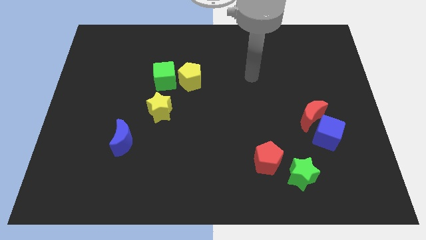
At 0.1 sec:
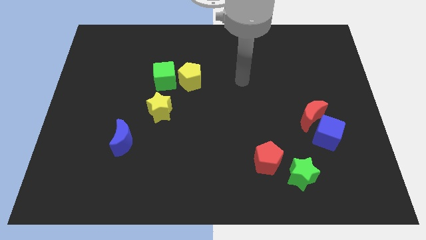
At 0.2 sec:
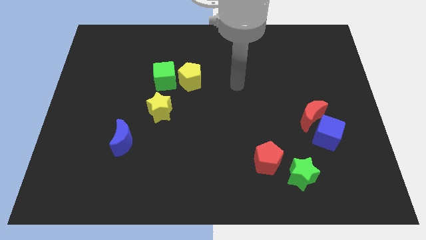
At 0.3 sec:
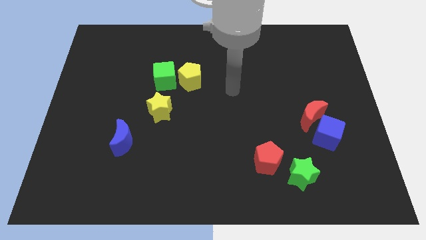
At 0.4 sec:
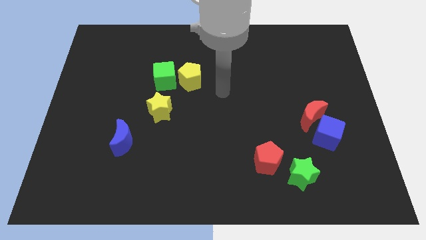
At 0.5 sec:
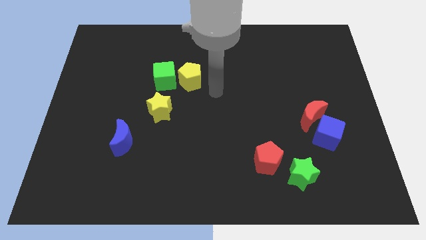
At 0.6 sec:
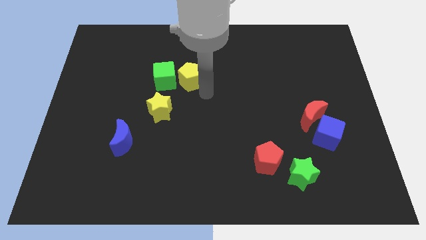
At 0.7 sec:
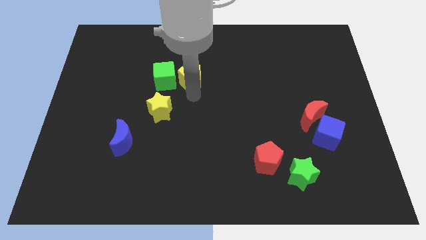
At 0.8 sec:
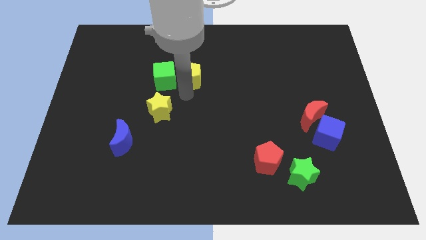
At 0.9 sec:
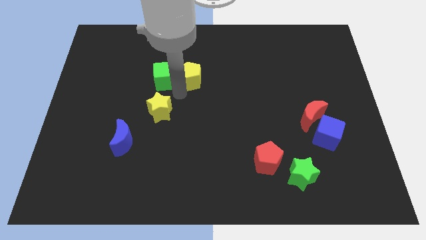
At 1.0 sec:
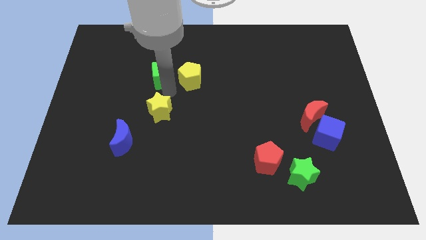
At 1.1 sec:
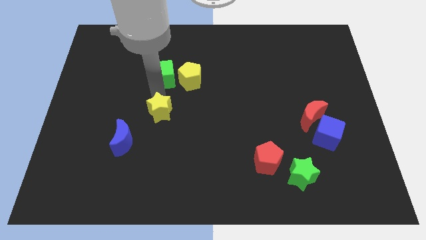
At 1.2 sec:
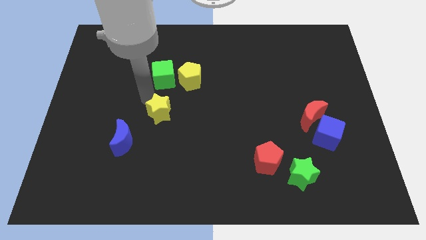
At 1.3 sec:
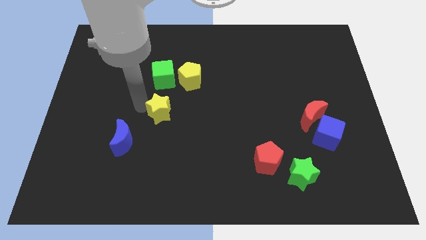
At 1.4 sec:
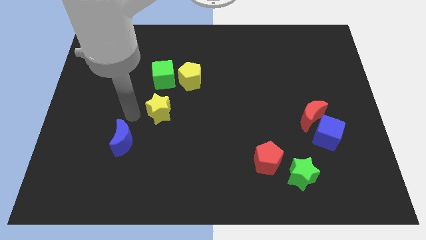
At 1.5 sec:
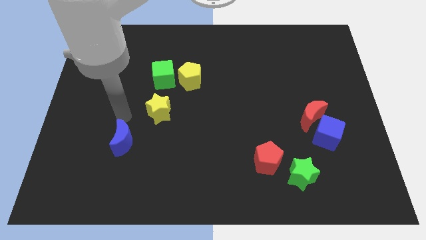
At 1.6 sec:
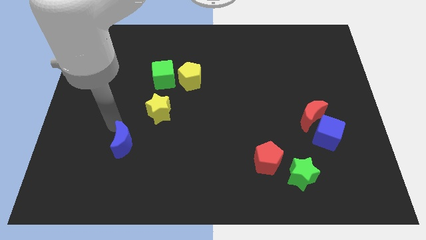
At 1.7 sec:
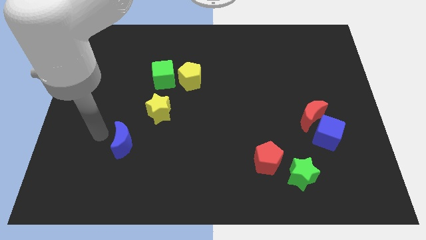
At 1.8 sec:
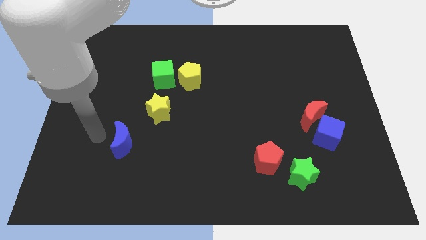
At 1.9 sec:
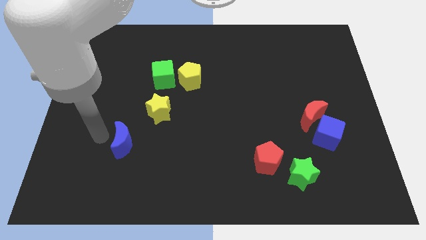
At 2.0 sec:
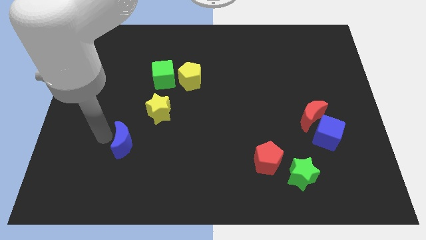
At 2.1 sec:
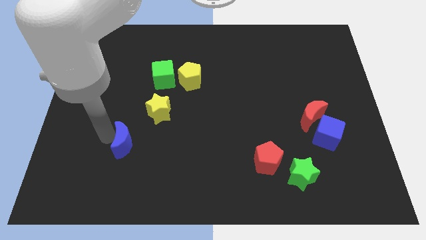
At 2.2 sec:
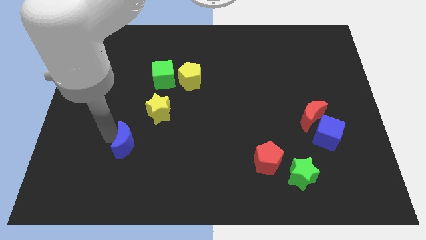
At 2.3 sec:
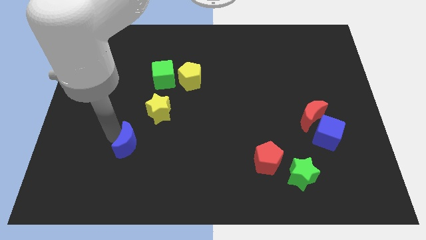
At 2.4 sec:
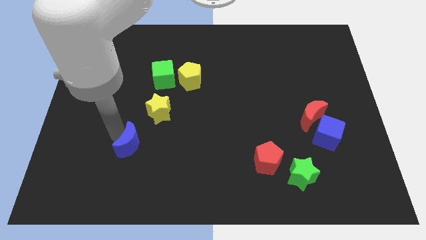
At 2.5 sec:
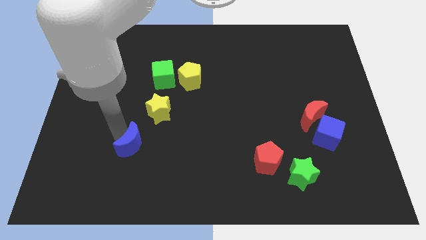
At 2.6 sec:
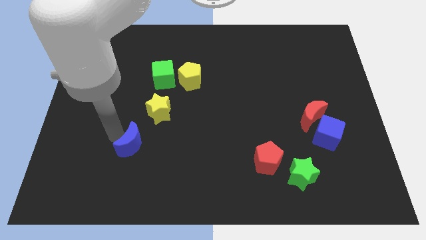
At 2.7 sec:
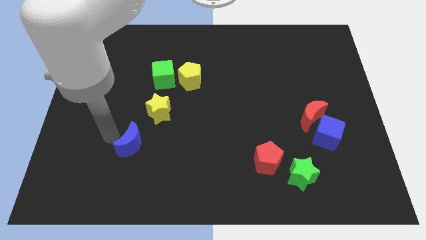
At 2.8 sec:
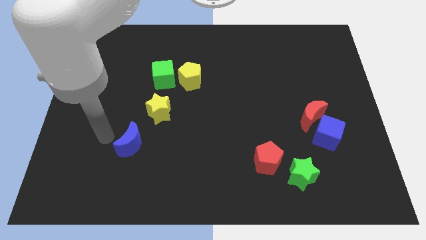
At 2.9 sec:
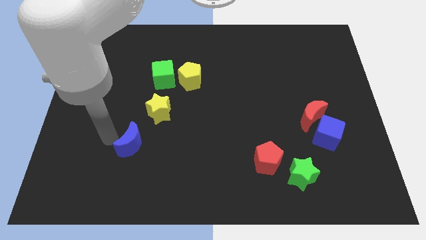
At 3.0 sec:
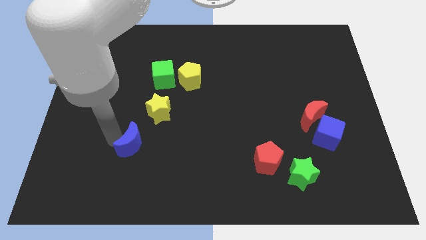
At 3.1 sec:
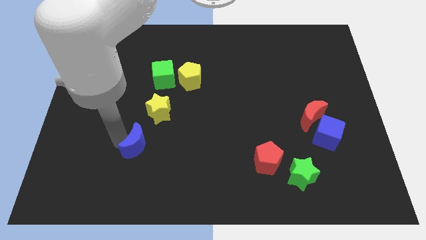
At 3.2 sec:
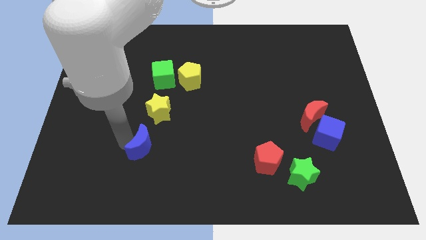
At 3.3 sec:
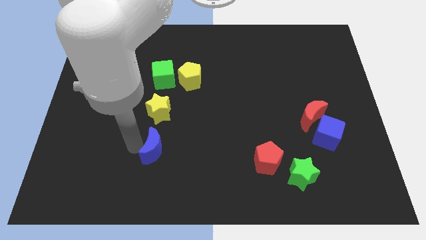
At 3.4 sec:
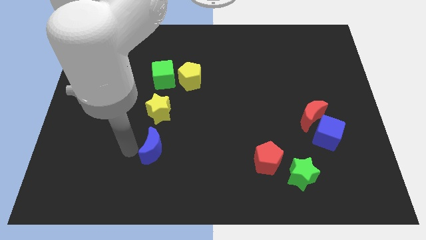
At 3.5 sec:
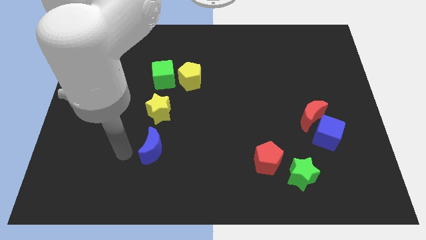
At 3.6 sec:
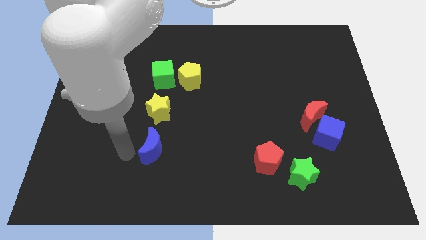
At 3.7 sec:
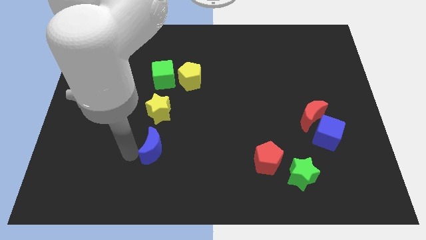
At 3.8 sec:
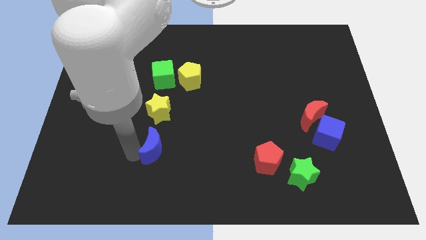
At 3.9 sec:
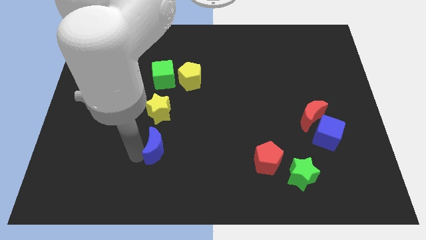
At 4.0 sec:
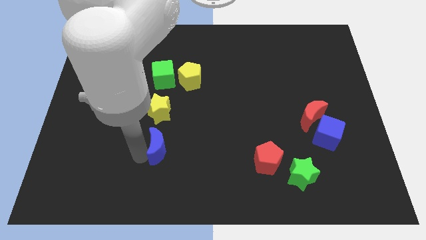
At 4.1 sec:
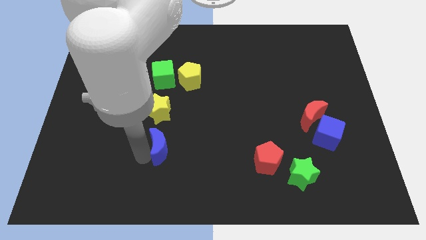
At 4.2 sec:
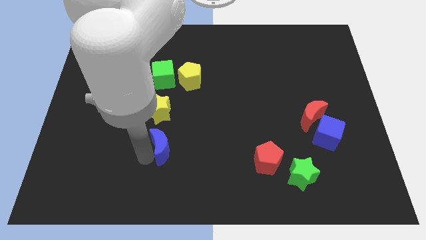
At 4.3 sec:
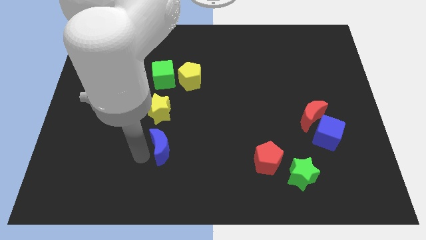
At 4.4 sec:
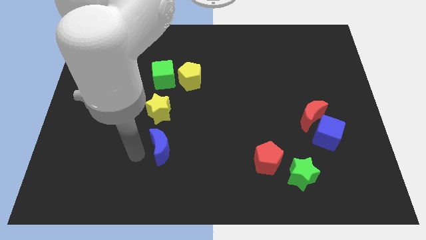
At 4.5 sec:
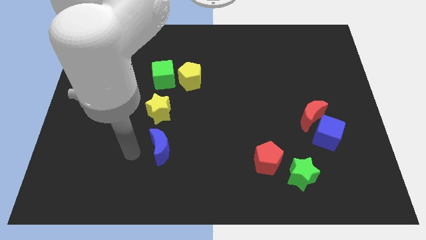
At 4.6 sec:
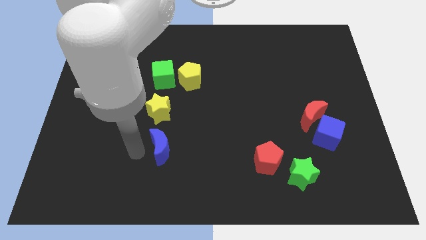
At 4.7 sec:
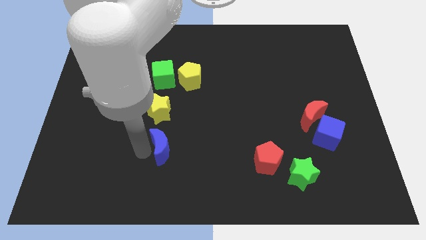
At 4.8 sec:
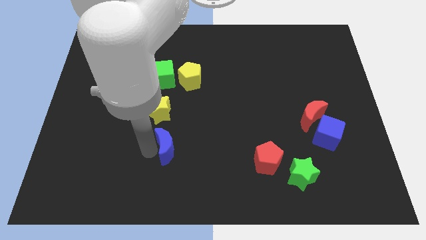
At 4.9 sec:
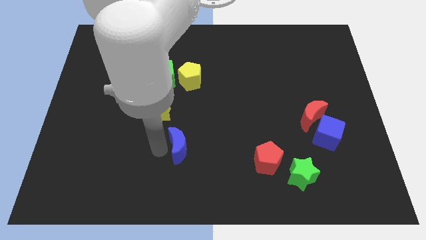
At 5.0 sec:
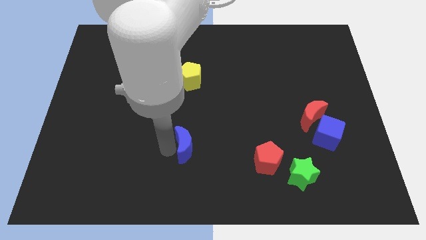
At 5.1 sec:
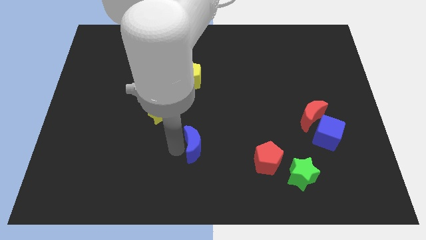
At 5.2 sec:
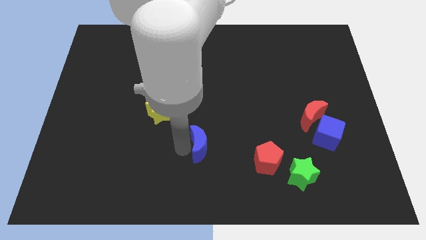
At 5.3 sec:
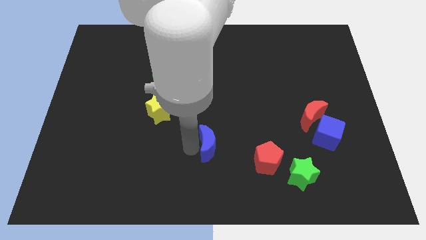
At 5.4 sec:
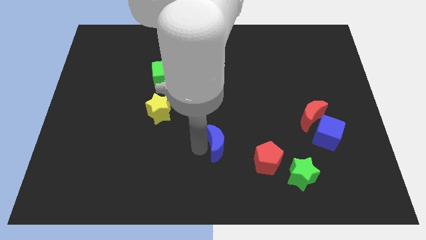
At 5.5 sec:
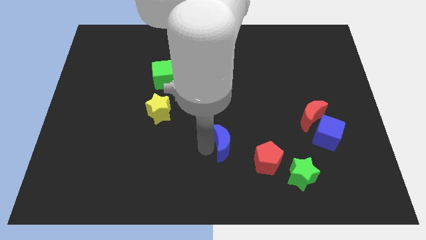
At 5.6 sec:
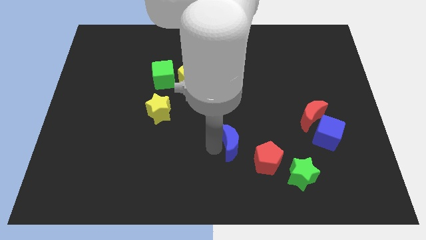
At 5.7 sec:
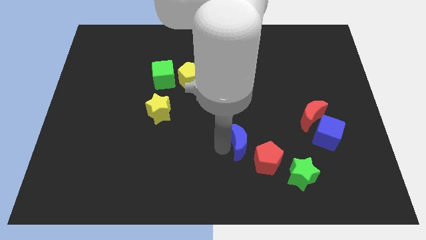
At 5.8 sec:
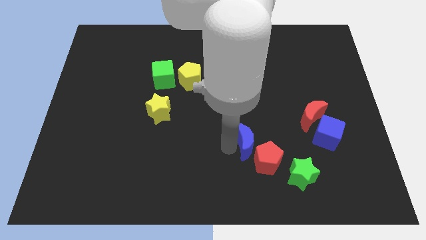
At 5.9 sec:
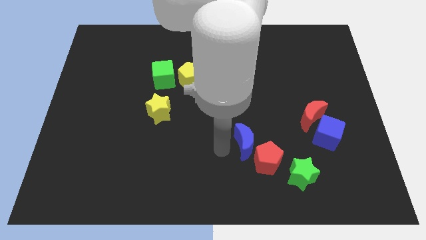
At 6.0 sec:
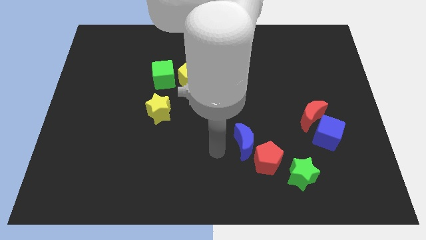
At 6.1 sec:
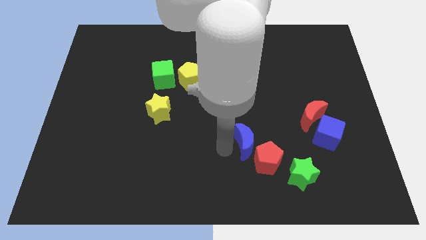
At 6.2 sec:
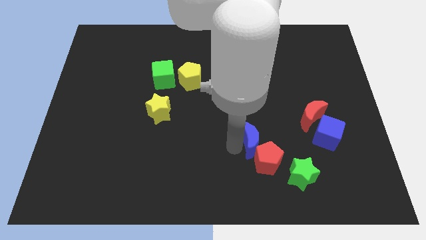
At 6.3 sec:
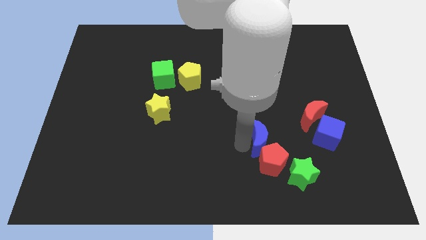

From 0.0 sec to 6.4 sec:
put the blue moon to the left of the blue cube
